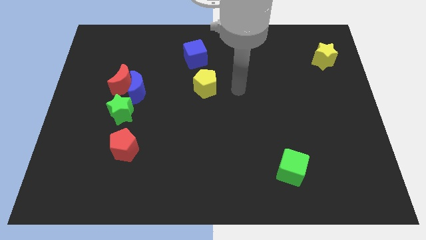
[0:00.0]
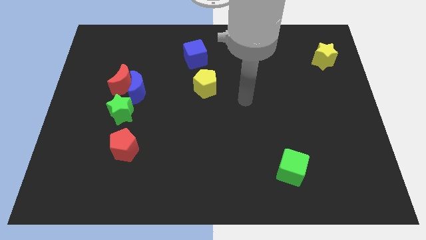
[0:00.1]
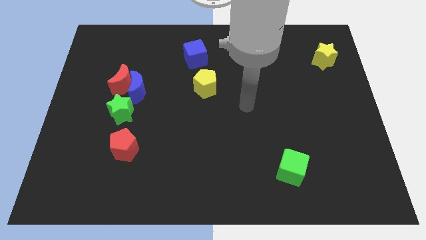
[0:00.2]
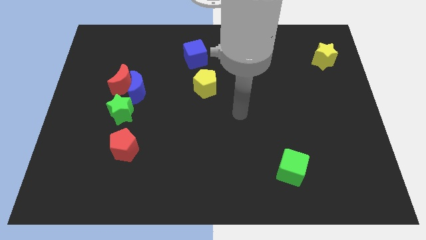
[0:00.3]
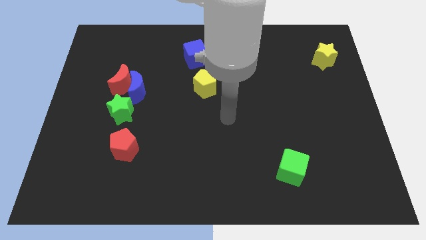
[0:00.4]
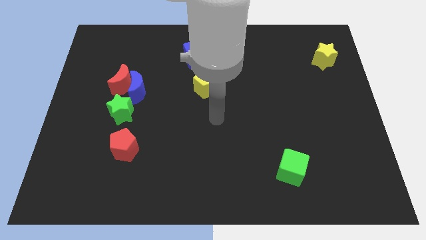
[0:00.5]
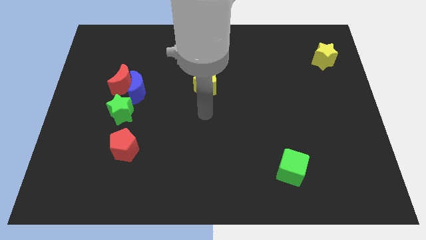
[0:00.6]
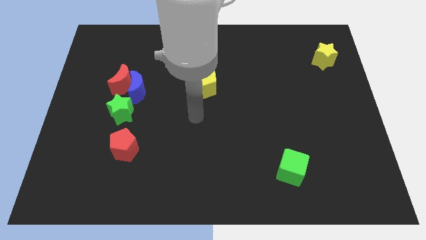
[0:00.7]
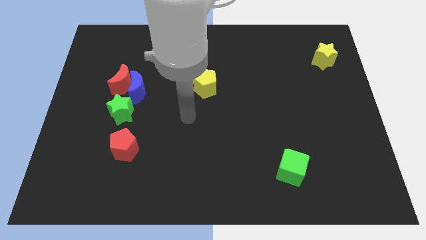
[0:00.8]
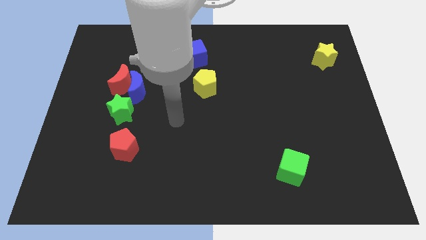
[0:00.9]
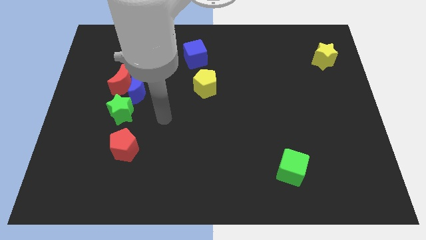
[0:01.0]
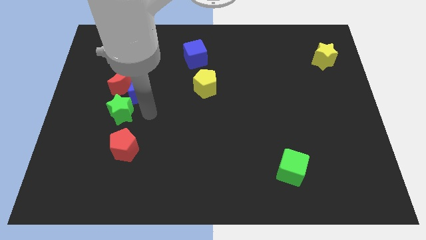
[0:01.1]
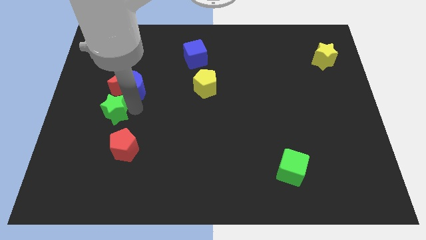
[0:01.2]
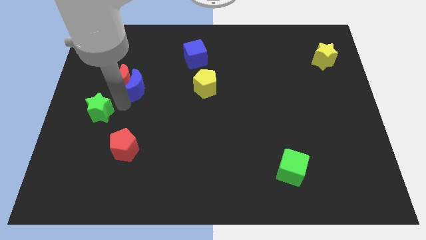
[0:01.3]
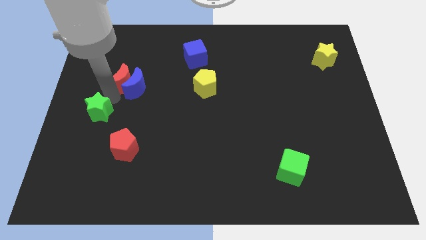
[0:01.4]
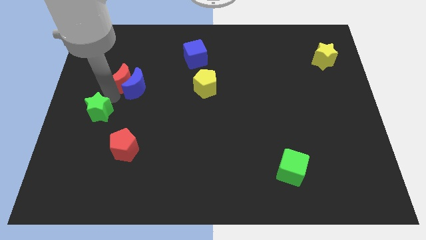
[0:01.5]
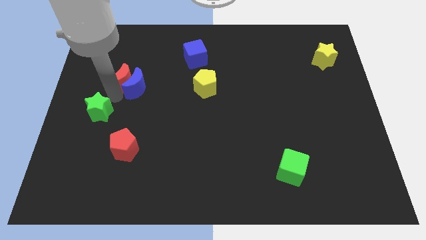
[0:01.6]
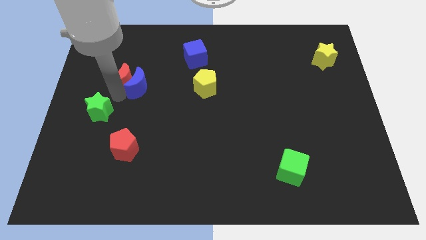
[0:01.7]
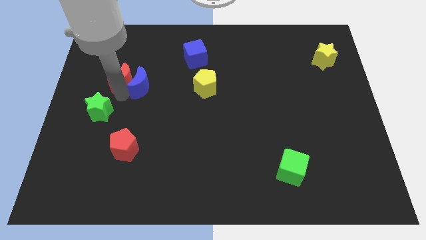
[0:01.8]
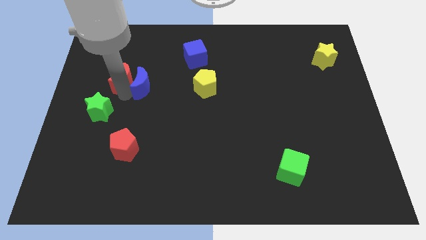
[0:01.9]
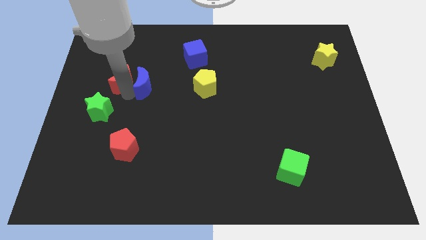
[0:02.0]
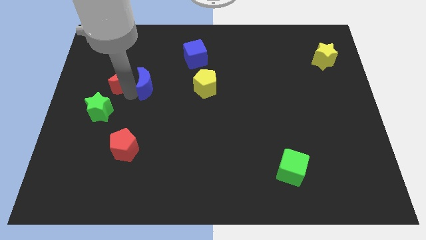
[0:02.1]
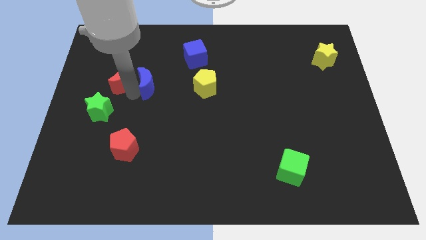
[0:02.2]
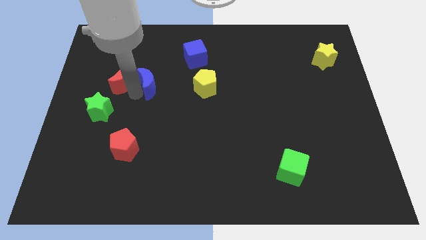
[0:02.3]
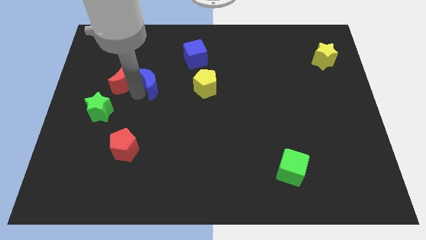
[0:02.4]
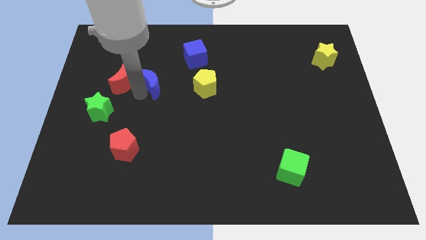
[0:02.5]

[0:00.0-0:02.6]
pull the blue moon apart from the red moon and green star

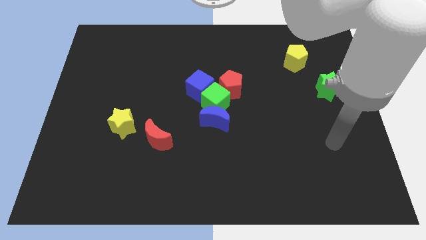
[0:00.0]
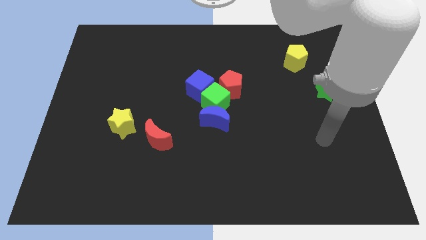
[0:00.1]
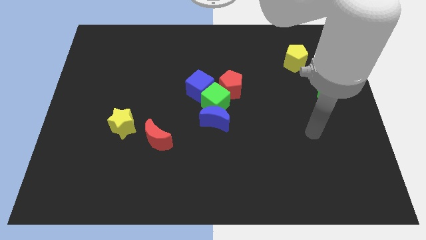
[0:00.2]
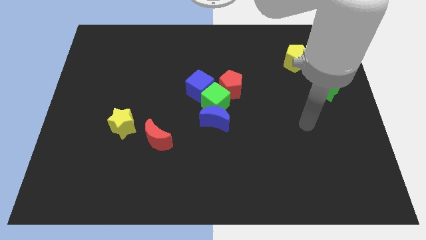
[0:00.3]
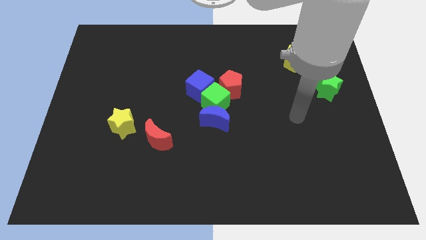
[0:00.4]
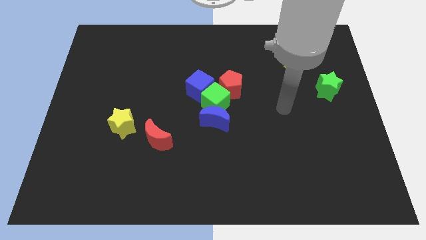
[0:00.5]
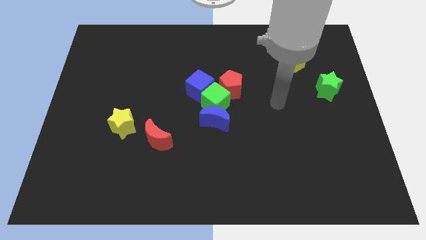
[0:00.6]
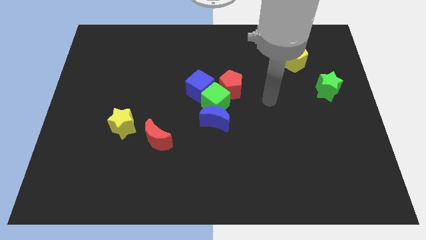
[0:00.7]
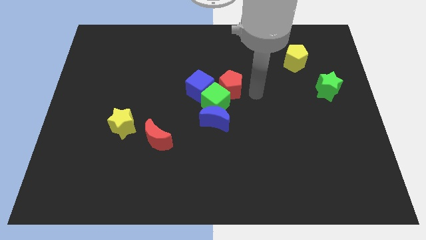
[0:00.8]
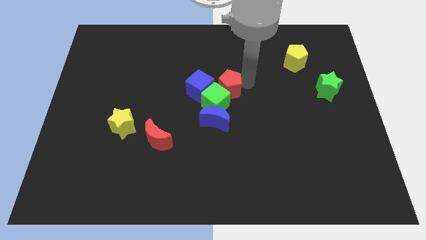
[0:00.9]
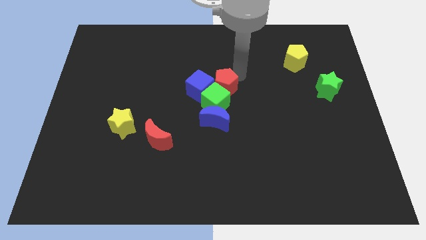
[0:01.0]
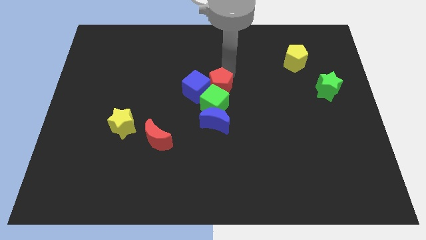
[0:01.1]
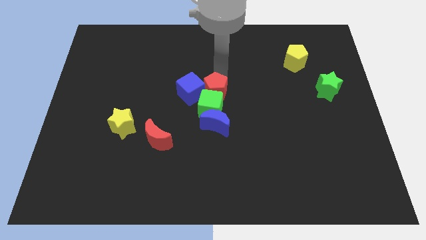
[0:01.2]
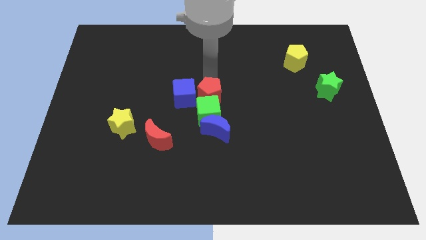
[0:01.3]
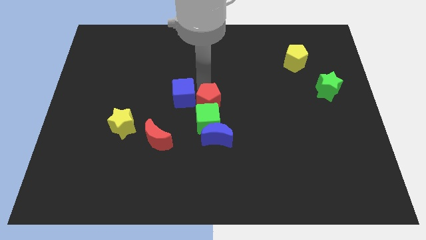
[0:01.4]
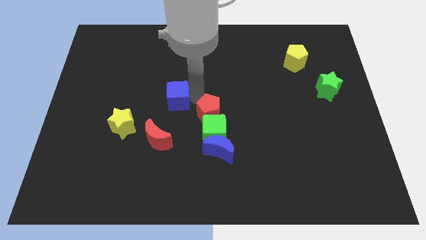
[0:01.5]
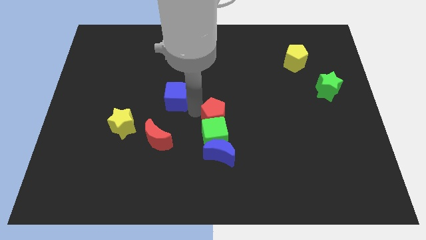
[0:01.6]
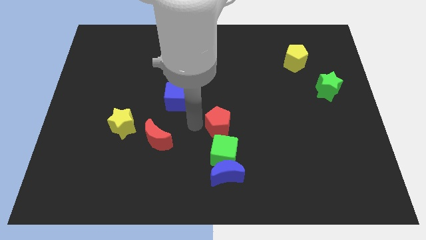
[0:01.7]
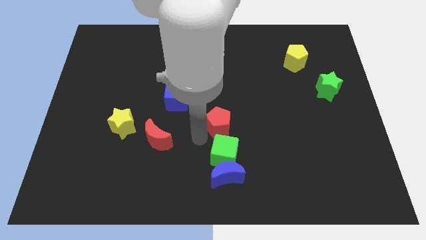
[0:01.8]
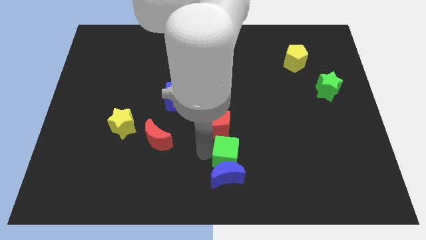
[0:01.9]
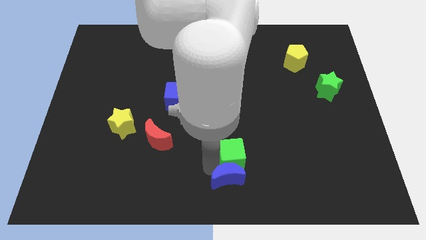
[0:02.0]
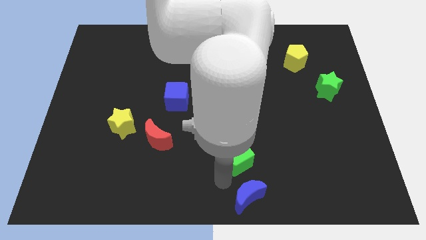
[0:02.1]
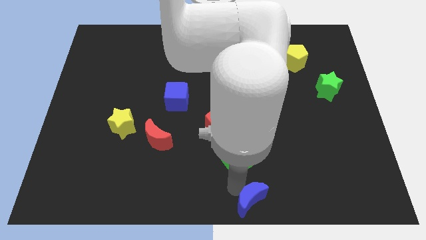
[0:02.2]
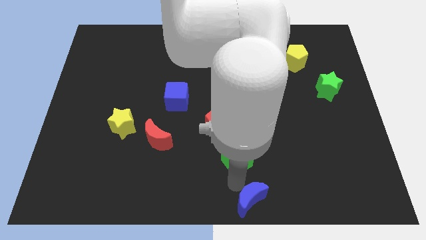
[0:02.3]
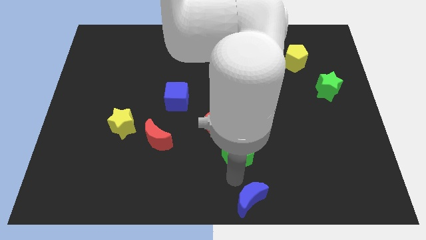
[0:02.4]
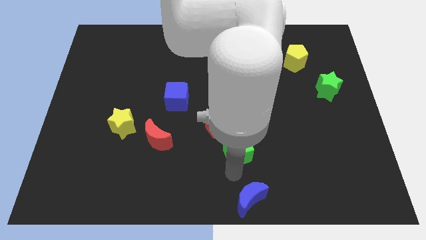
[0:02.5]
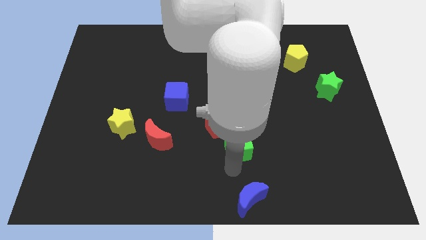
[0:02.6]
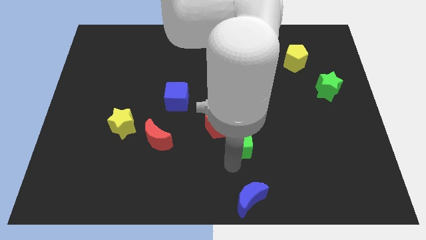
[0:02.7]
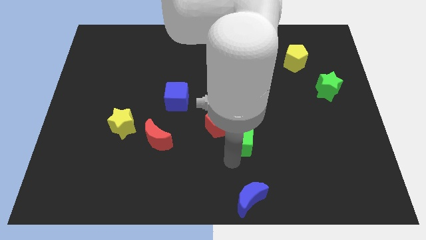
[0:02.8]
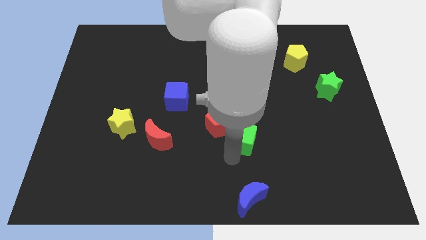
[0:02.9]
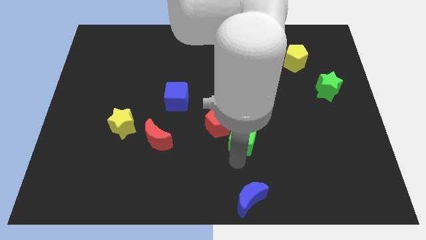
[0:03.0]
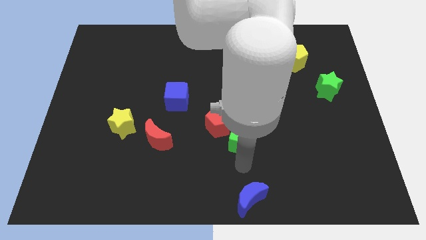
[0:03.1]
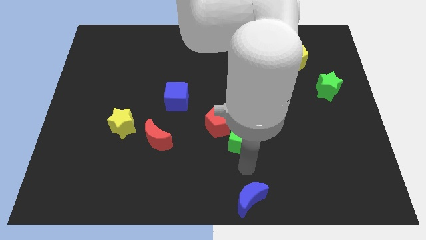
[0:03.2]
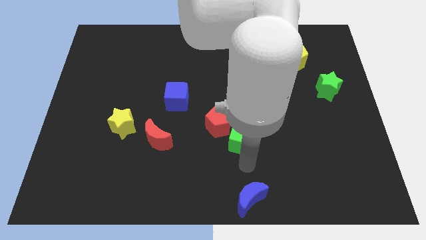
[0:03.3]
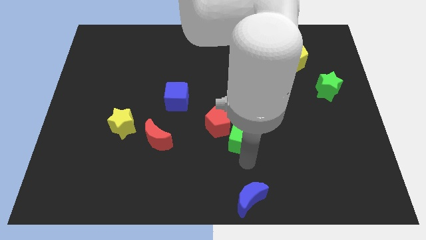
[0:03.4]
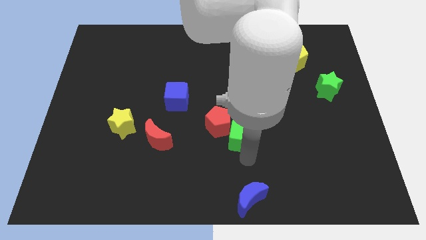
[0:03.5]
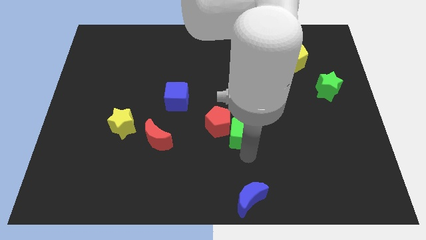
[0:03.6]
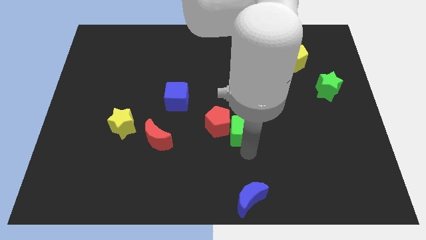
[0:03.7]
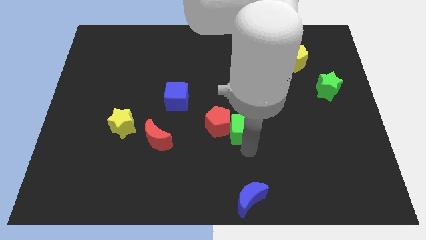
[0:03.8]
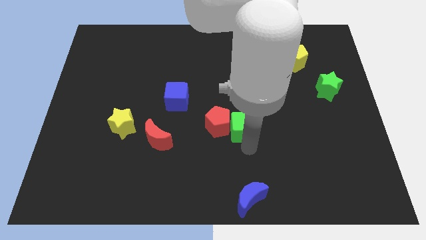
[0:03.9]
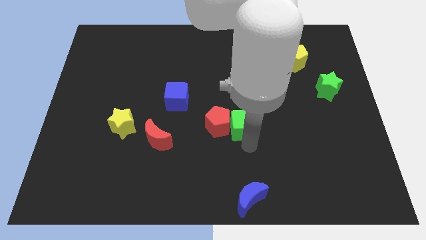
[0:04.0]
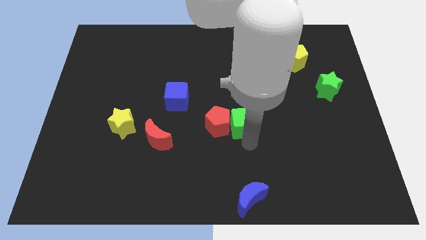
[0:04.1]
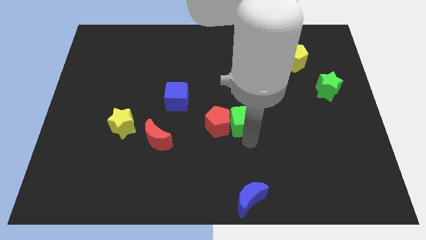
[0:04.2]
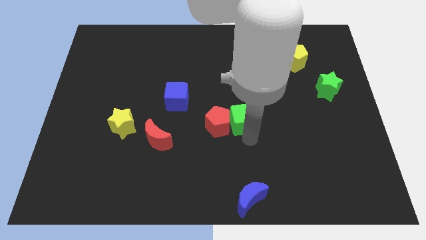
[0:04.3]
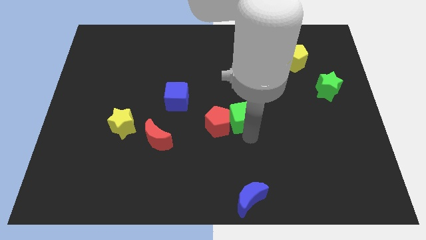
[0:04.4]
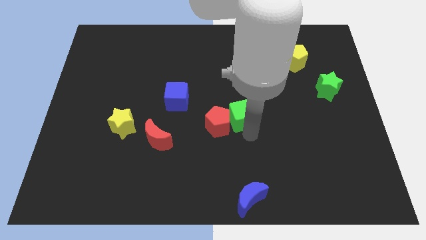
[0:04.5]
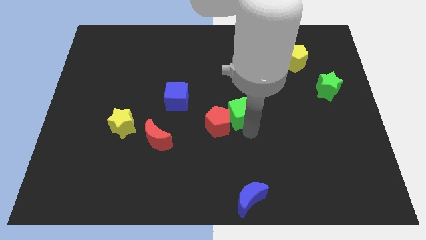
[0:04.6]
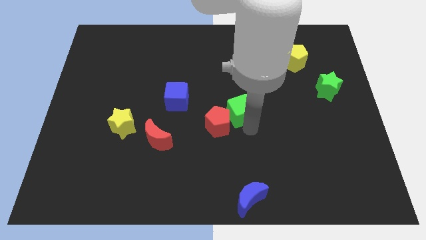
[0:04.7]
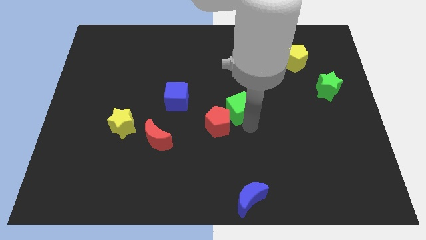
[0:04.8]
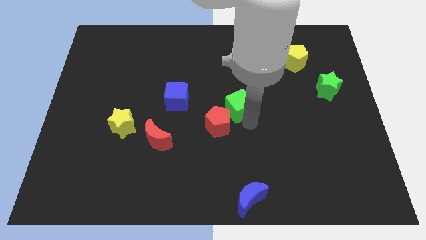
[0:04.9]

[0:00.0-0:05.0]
pull the green cube apart from the blue moon, blue cube, and red pentagon

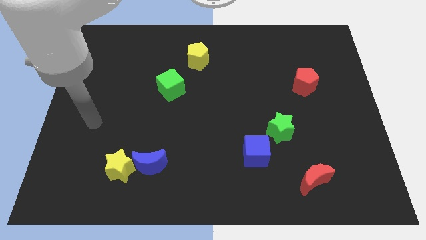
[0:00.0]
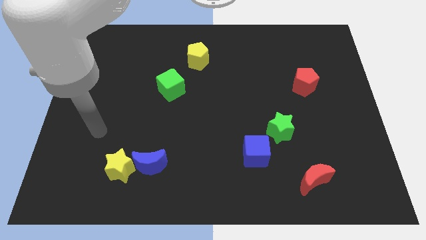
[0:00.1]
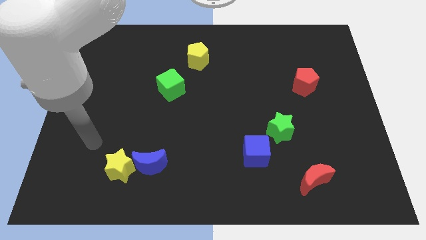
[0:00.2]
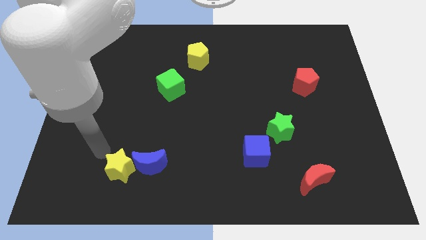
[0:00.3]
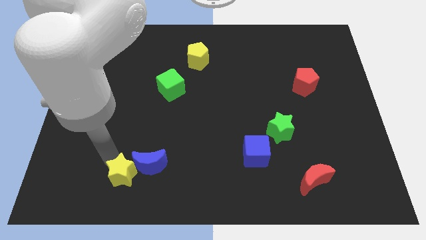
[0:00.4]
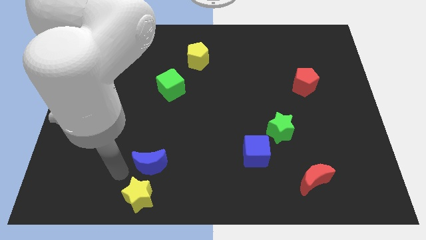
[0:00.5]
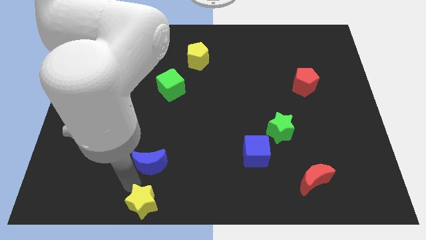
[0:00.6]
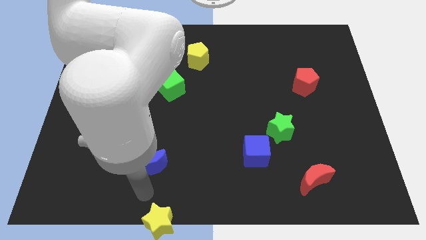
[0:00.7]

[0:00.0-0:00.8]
separate the blue moon from the yellow star

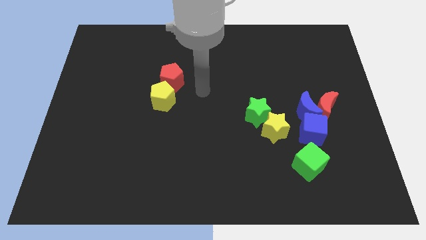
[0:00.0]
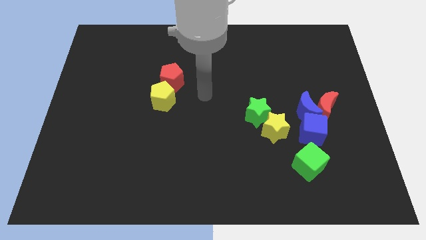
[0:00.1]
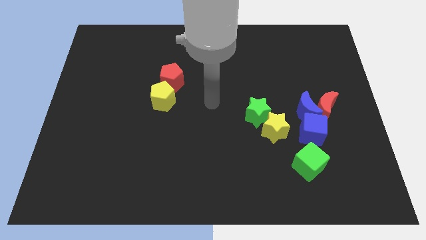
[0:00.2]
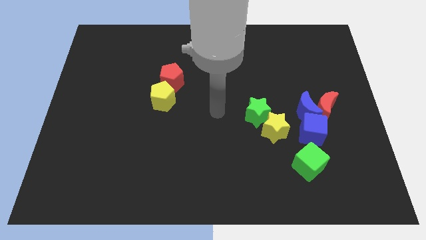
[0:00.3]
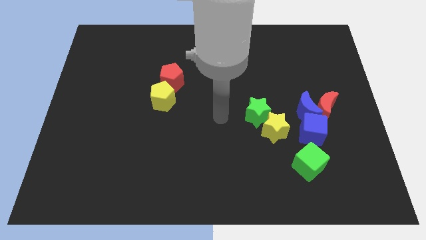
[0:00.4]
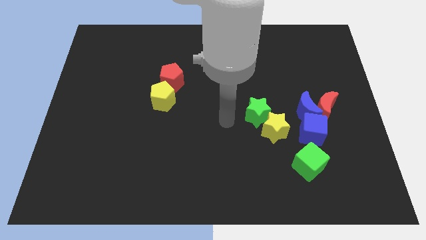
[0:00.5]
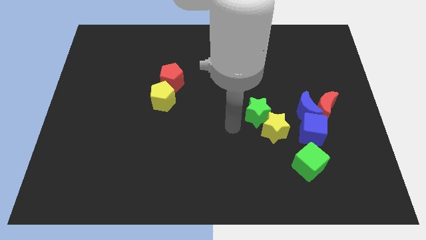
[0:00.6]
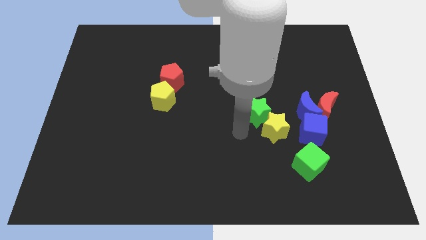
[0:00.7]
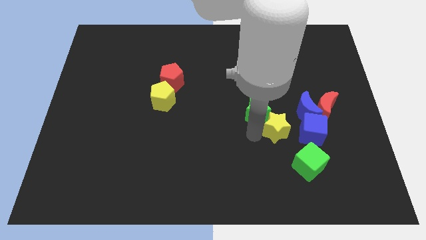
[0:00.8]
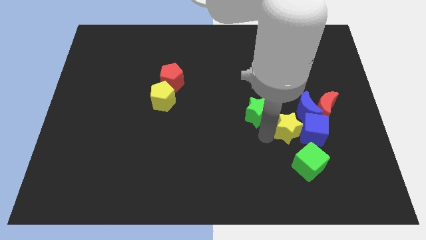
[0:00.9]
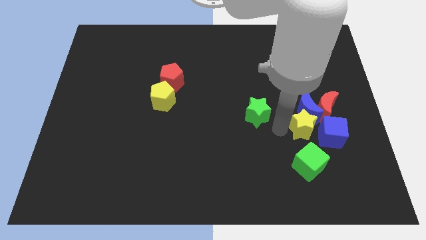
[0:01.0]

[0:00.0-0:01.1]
pull the green star apart from the yellow star
